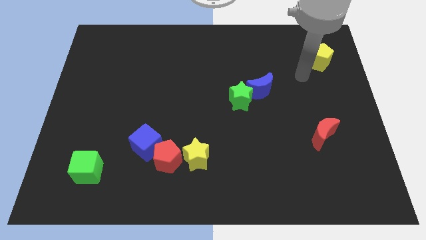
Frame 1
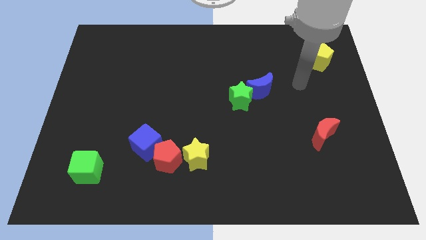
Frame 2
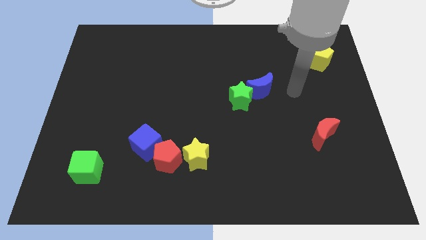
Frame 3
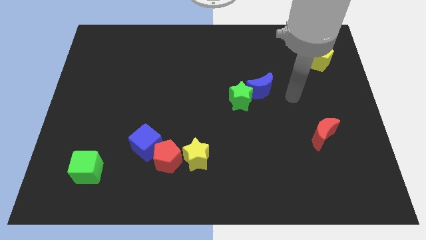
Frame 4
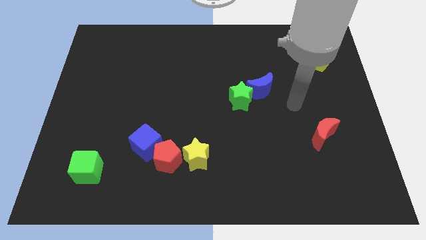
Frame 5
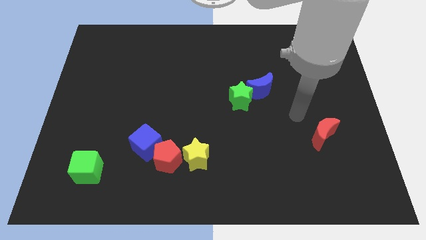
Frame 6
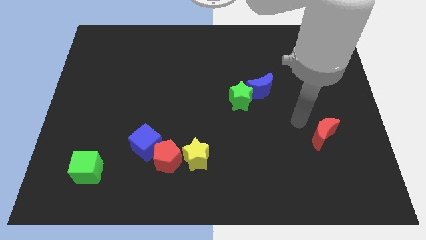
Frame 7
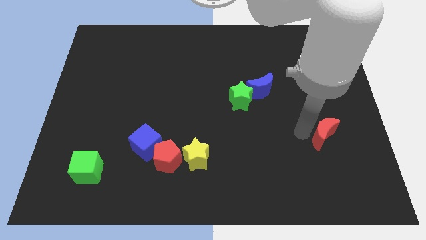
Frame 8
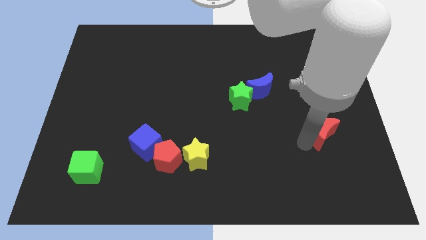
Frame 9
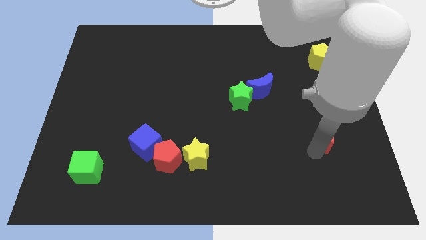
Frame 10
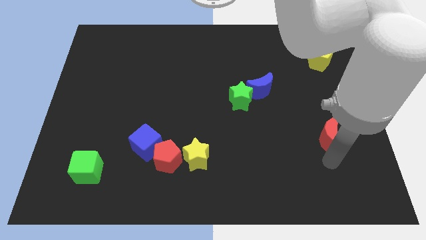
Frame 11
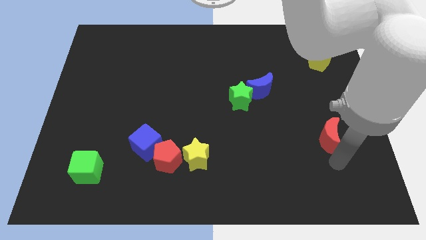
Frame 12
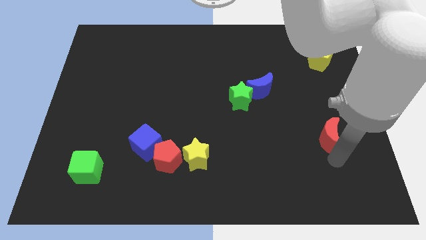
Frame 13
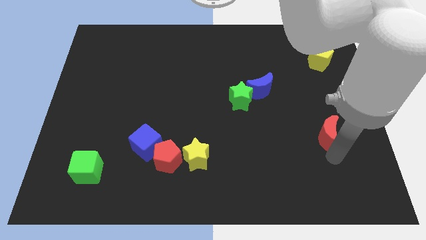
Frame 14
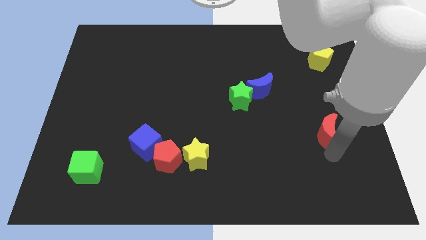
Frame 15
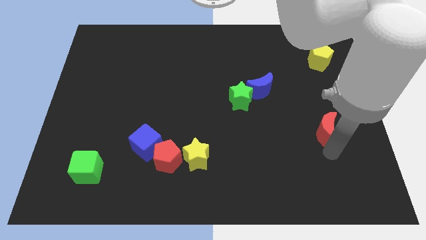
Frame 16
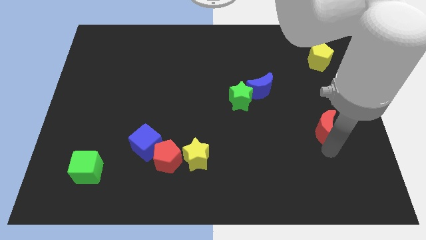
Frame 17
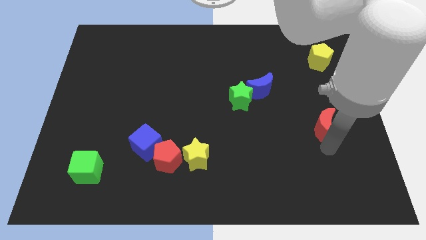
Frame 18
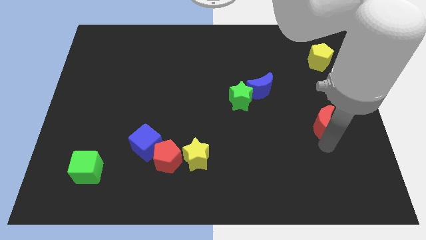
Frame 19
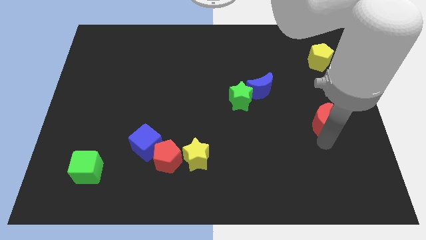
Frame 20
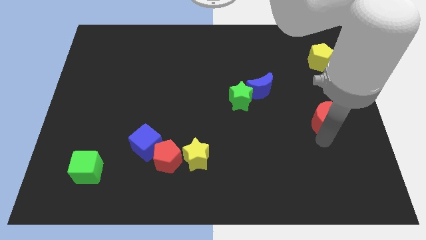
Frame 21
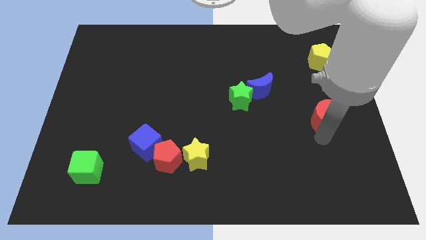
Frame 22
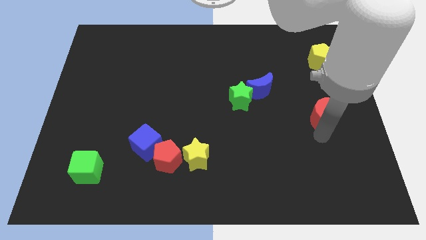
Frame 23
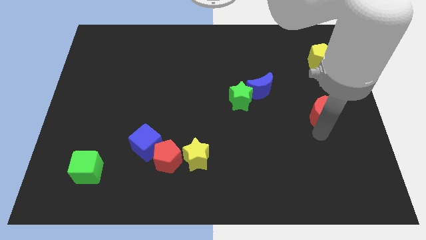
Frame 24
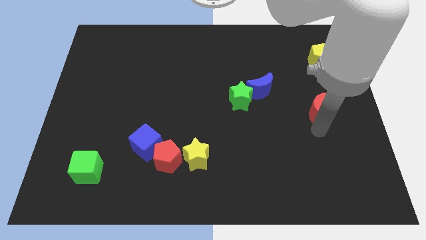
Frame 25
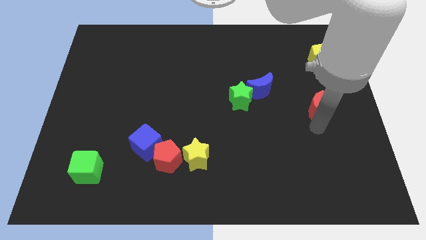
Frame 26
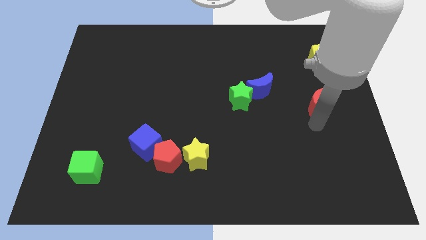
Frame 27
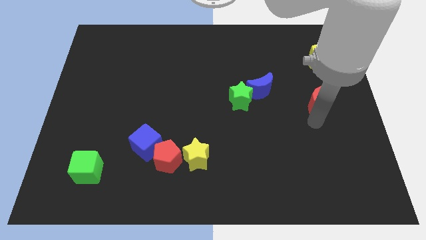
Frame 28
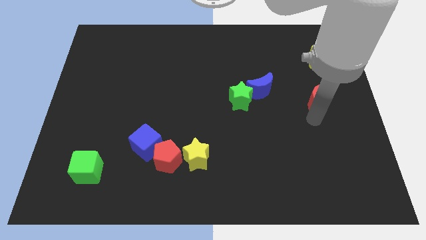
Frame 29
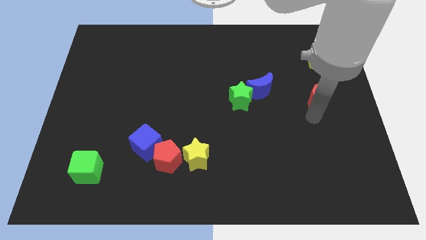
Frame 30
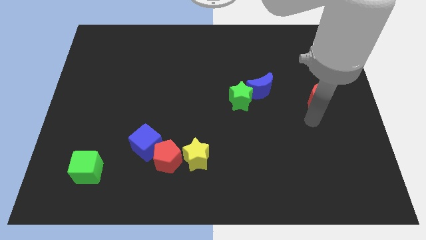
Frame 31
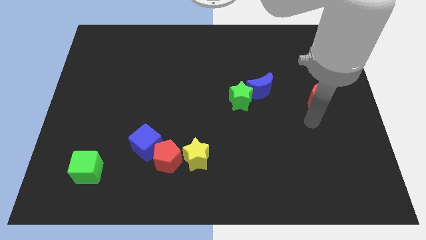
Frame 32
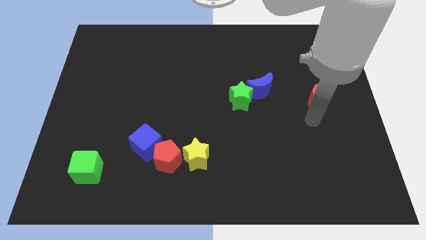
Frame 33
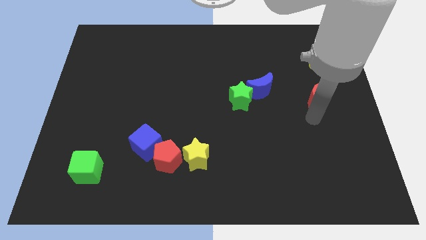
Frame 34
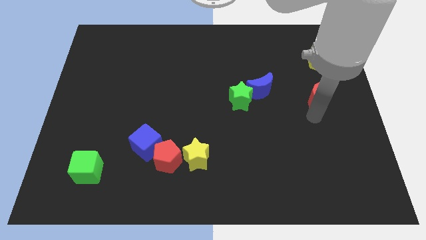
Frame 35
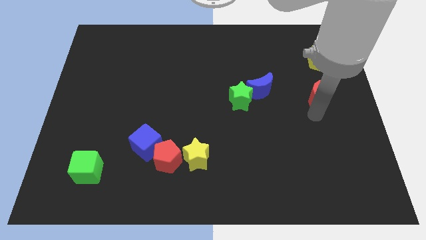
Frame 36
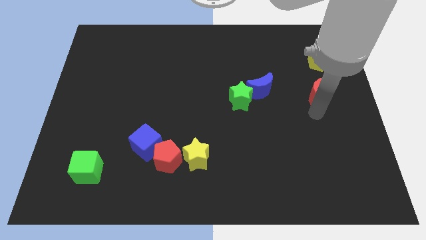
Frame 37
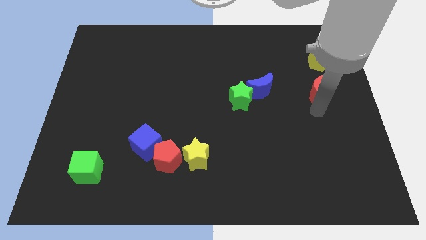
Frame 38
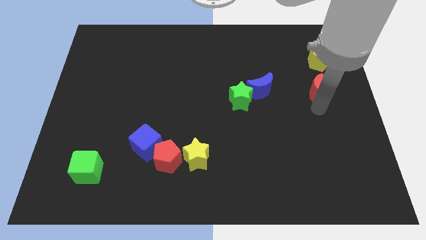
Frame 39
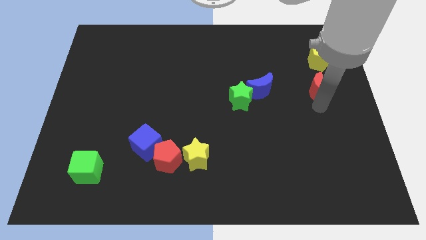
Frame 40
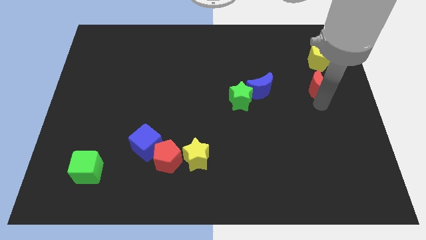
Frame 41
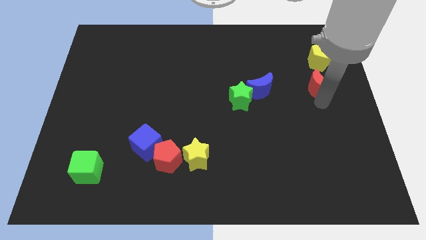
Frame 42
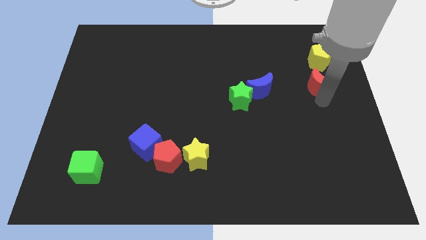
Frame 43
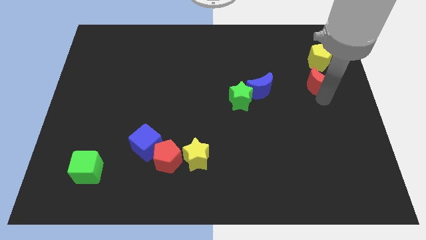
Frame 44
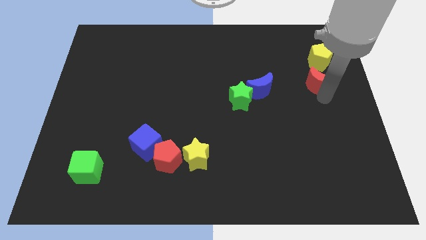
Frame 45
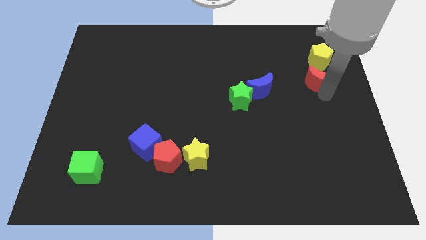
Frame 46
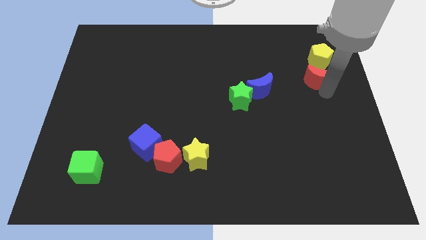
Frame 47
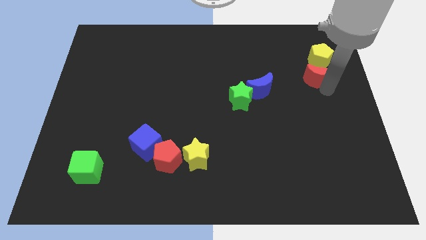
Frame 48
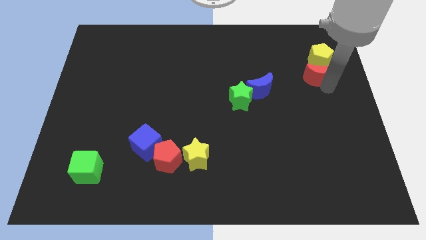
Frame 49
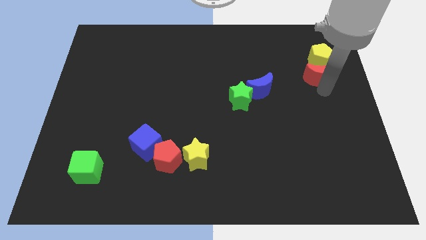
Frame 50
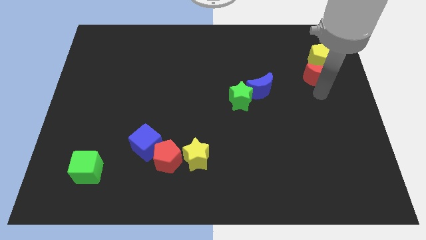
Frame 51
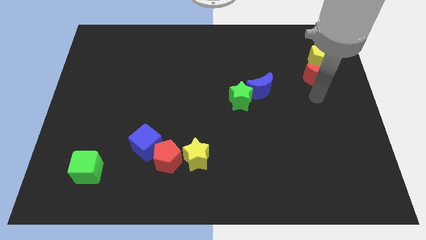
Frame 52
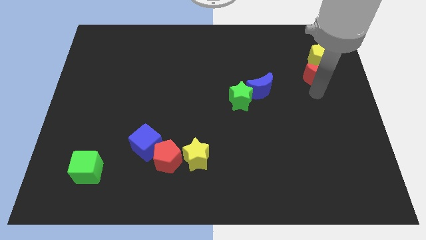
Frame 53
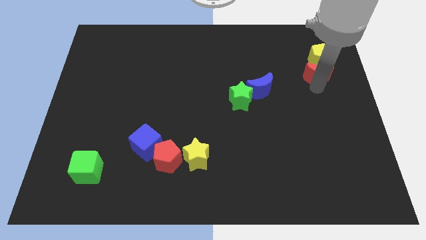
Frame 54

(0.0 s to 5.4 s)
move the red moon next to the yellow pentagon

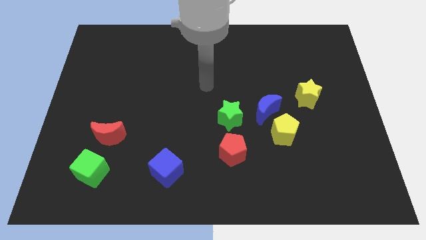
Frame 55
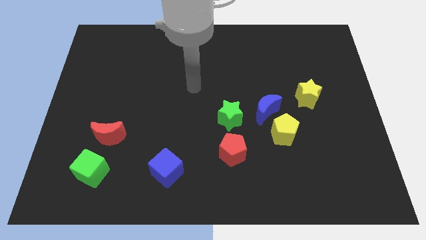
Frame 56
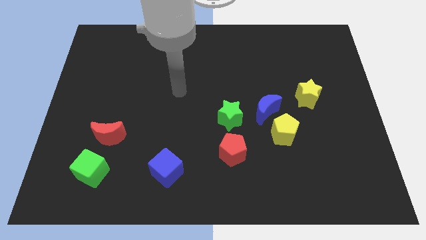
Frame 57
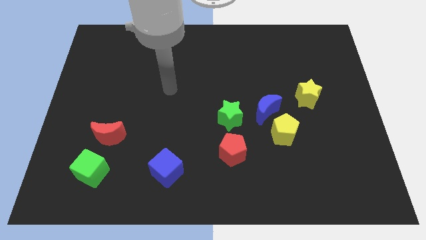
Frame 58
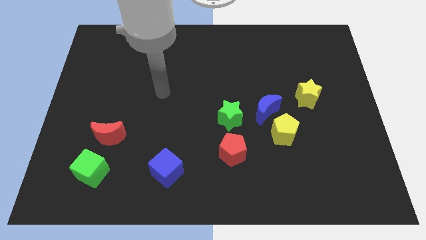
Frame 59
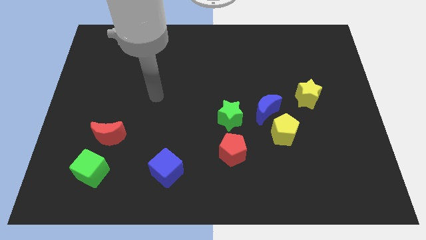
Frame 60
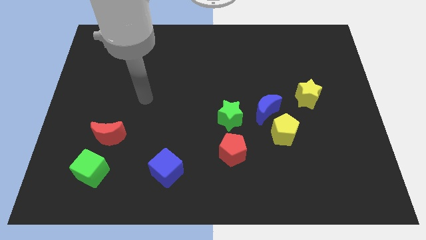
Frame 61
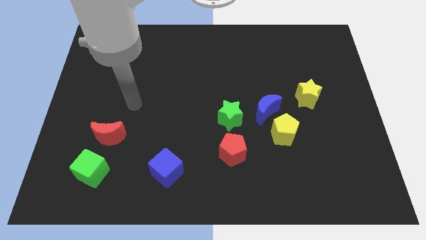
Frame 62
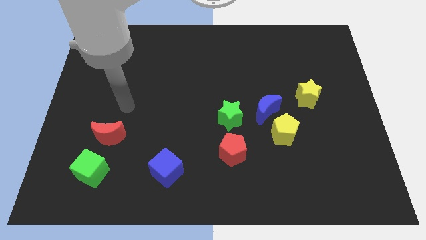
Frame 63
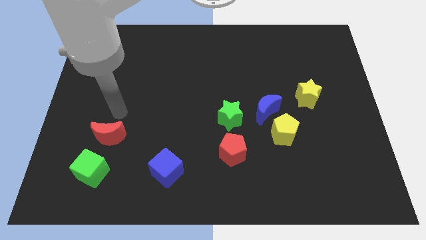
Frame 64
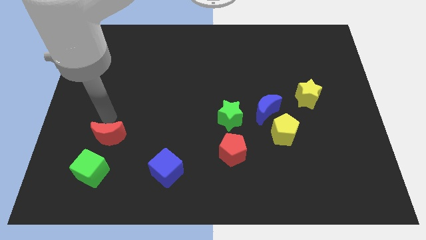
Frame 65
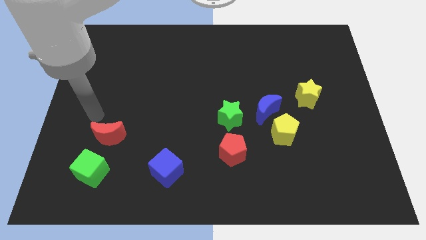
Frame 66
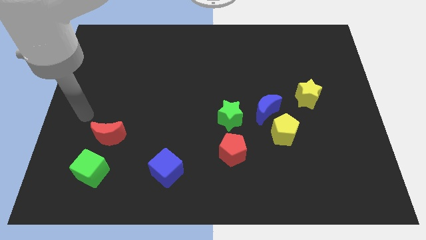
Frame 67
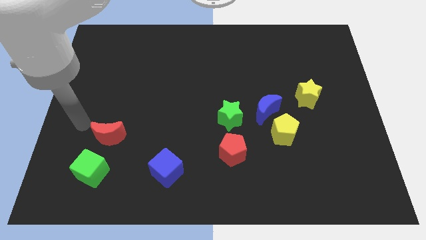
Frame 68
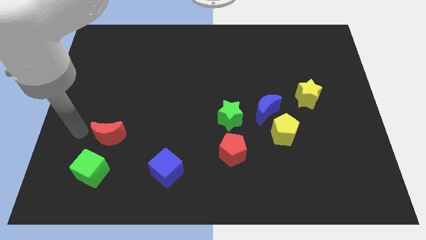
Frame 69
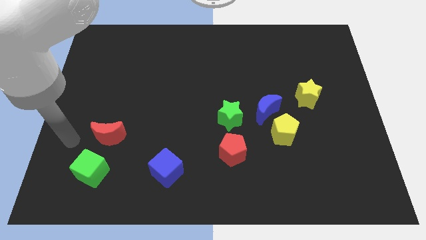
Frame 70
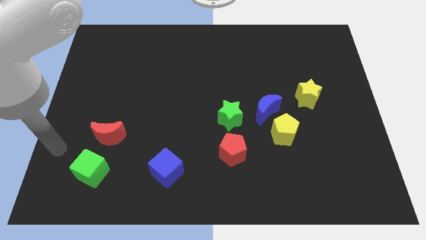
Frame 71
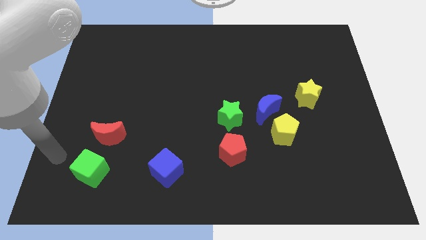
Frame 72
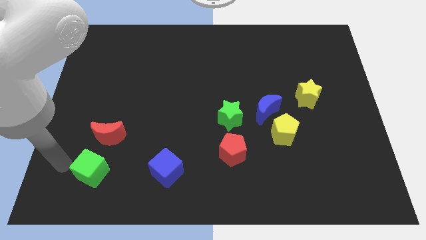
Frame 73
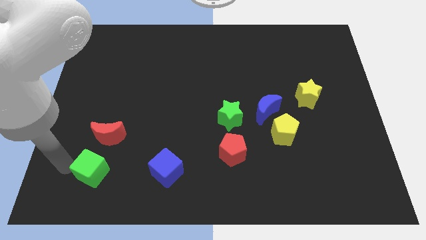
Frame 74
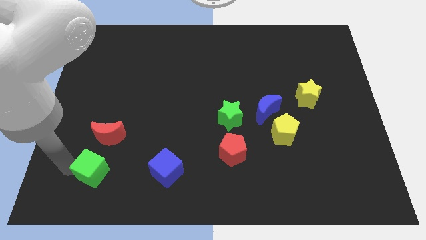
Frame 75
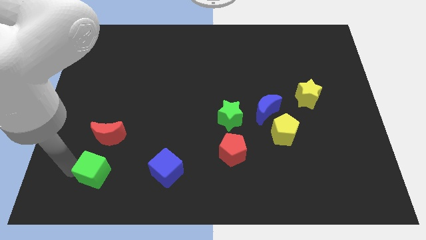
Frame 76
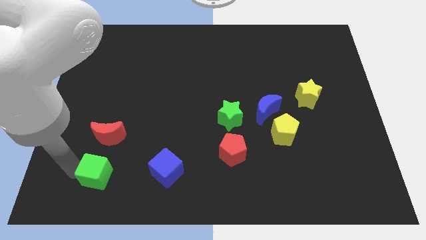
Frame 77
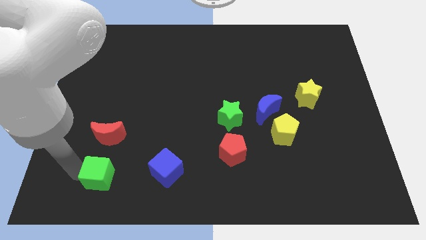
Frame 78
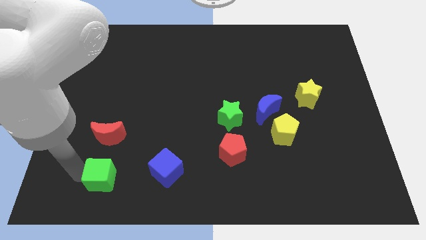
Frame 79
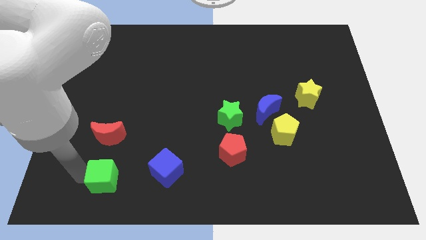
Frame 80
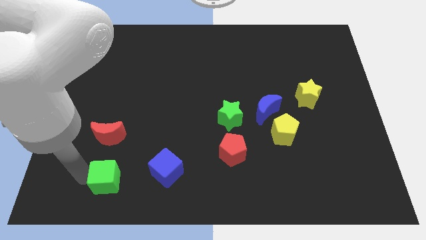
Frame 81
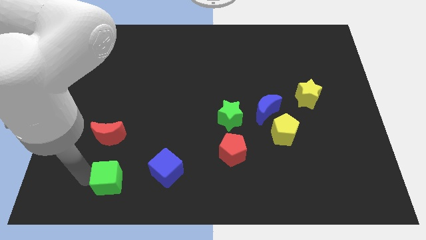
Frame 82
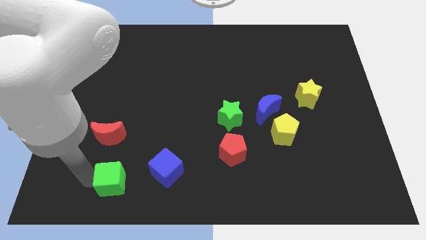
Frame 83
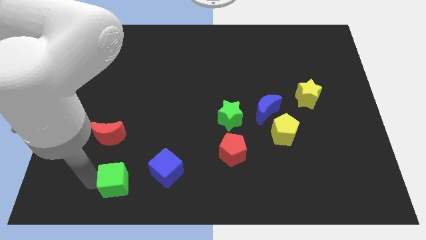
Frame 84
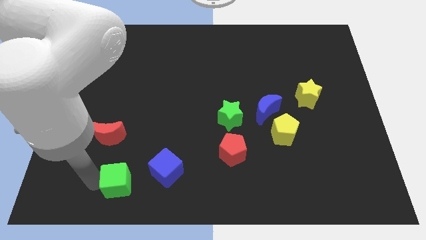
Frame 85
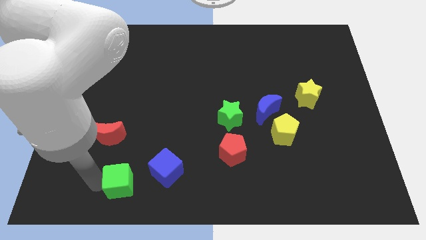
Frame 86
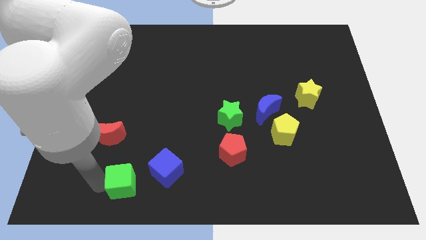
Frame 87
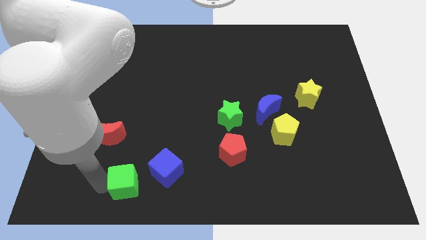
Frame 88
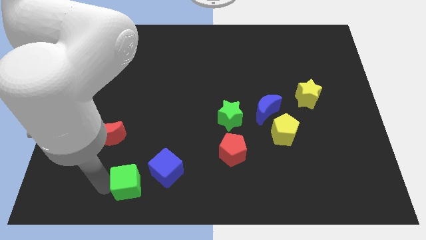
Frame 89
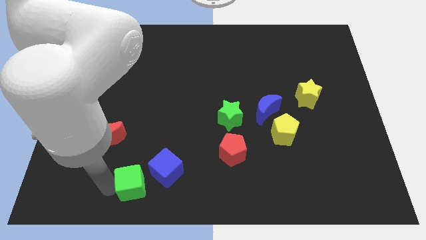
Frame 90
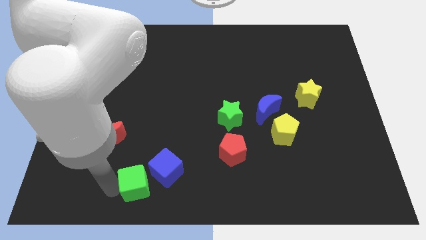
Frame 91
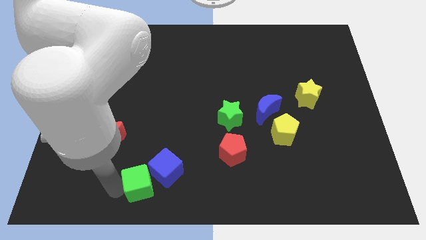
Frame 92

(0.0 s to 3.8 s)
slide the green cube towards the blue cube
